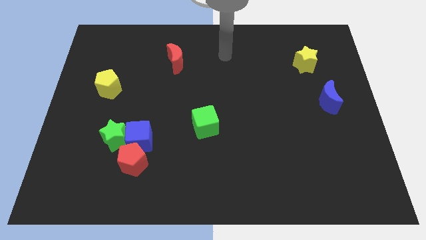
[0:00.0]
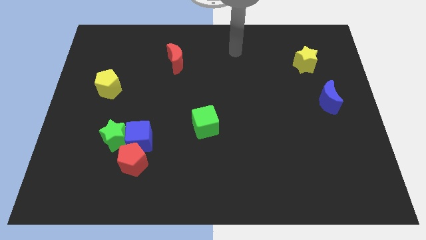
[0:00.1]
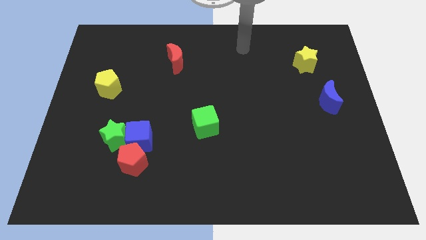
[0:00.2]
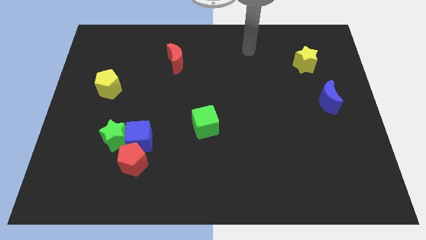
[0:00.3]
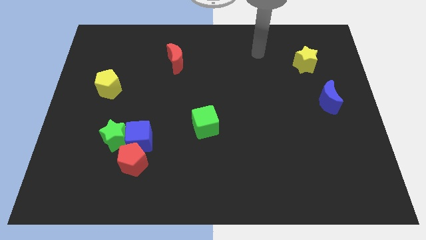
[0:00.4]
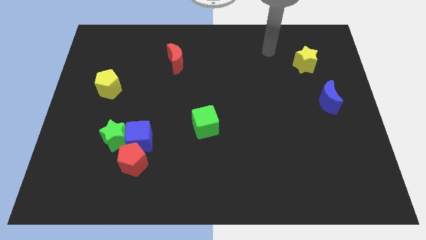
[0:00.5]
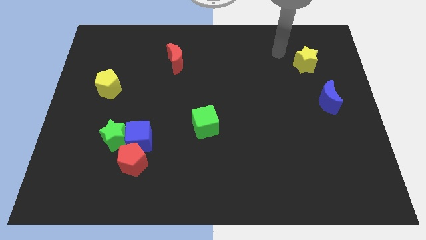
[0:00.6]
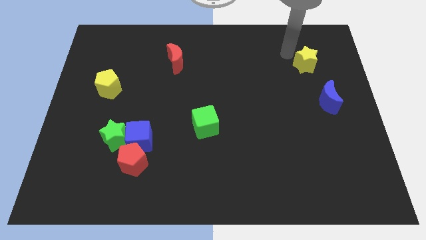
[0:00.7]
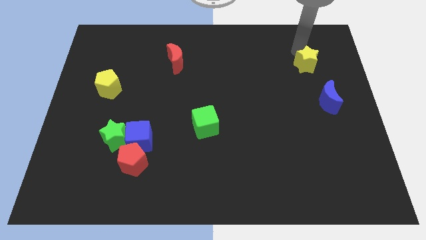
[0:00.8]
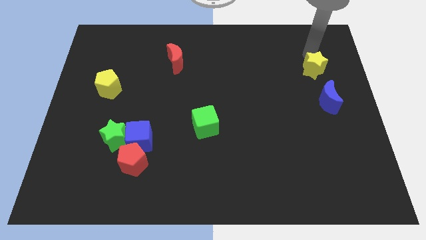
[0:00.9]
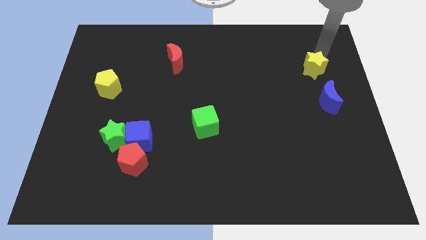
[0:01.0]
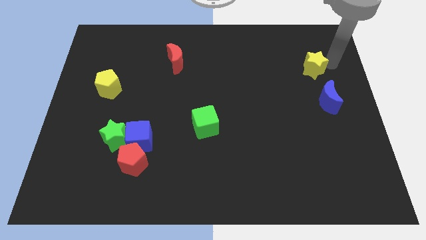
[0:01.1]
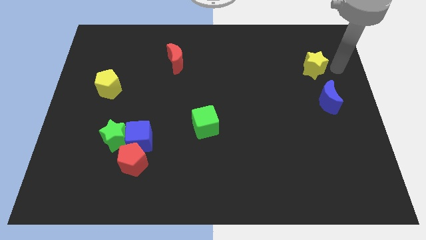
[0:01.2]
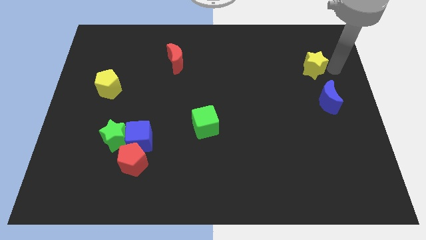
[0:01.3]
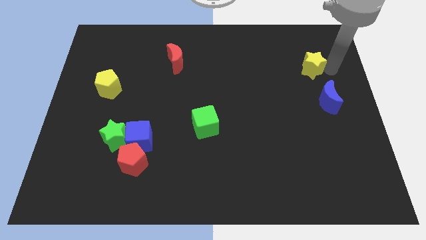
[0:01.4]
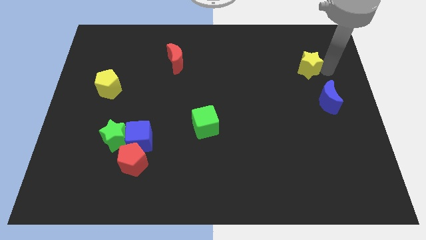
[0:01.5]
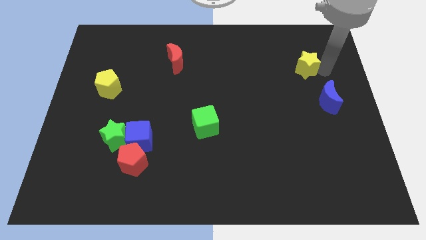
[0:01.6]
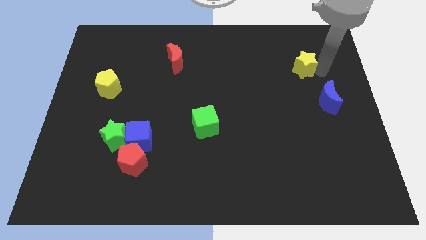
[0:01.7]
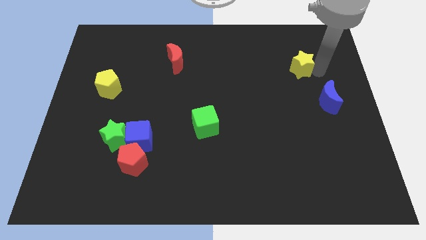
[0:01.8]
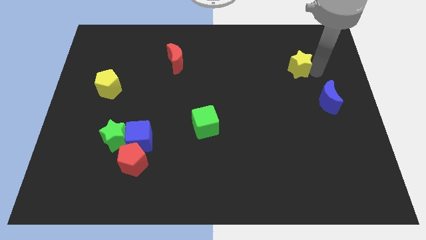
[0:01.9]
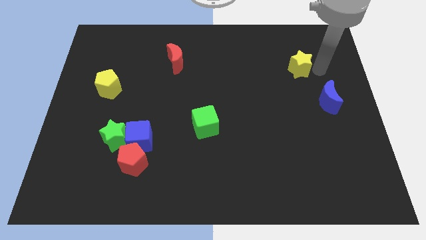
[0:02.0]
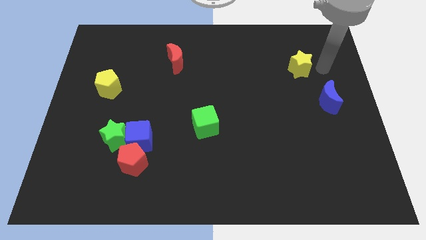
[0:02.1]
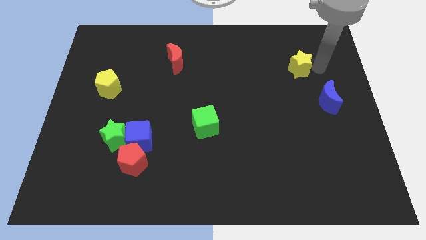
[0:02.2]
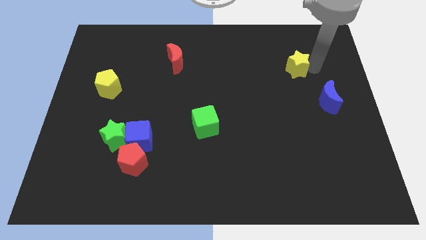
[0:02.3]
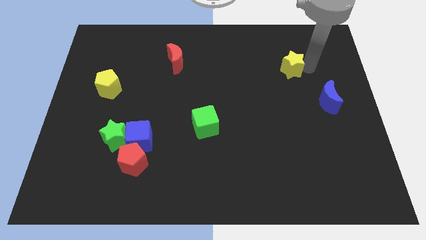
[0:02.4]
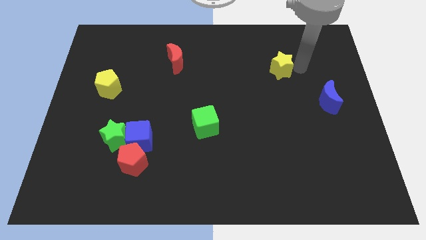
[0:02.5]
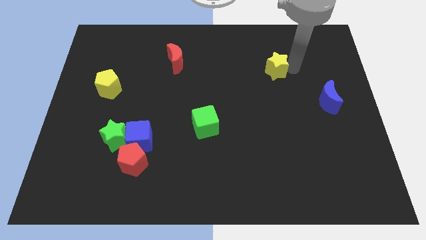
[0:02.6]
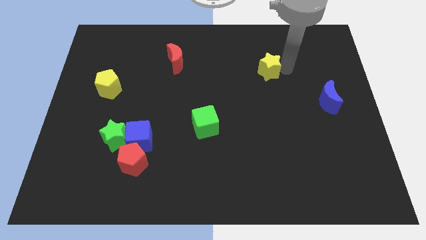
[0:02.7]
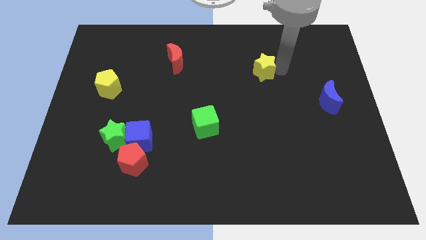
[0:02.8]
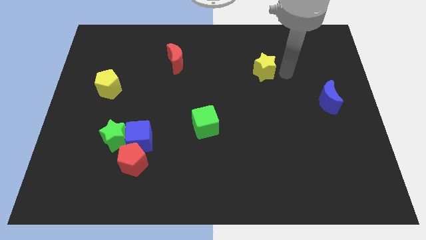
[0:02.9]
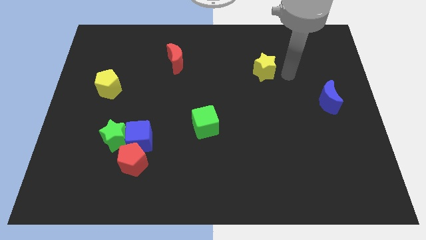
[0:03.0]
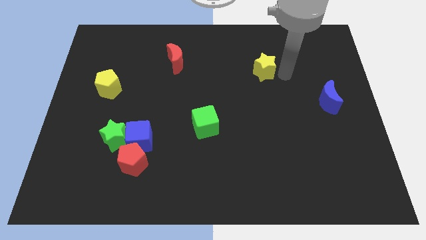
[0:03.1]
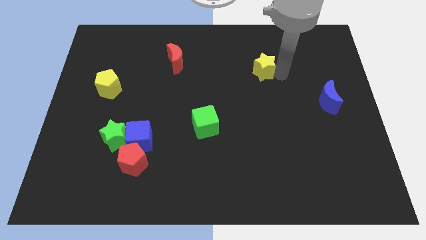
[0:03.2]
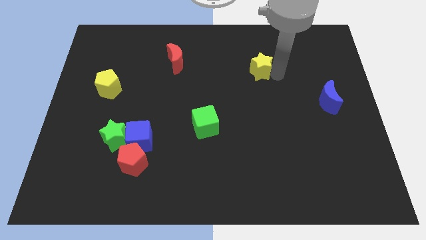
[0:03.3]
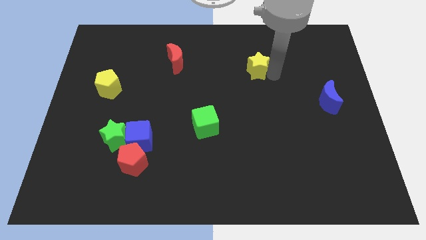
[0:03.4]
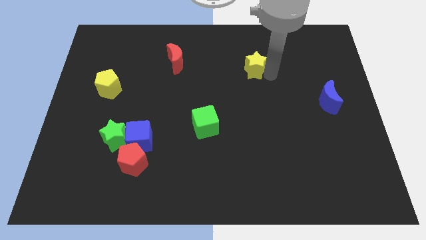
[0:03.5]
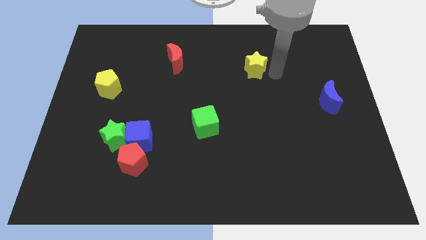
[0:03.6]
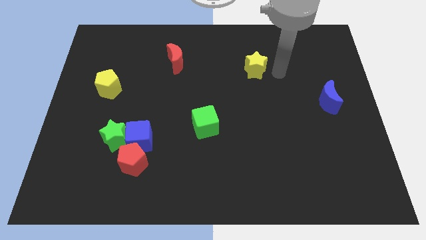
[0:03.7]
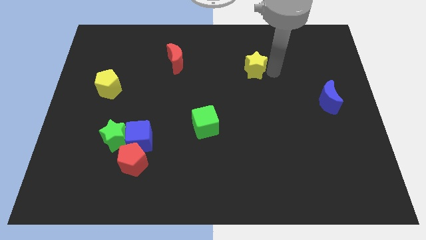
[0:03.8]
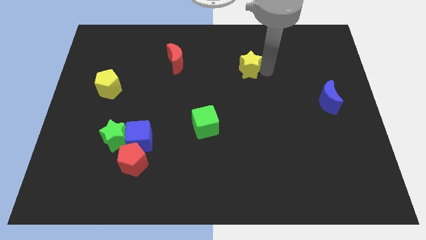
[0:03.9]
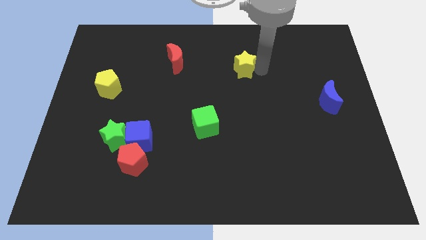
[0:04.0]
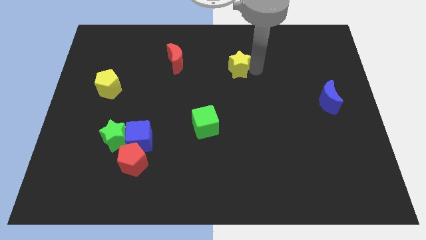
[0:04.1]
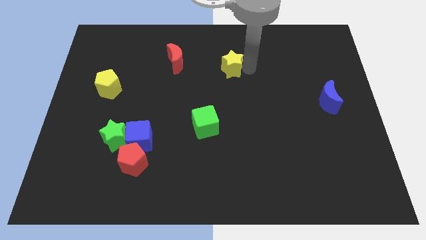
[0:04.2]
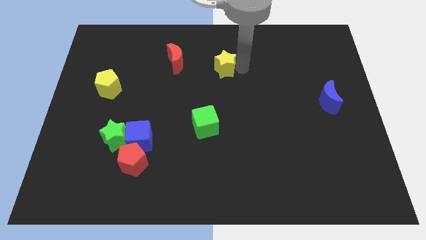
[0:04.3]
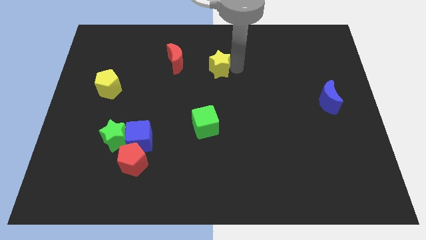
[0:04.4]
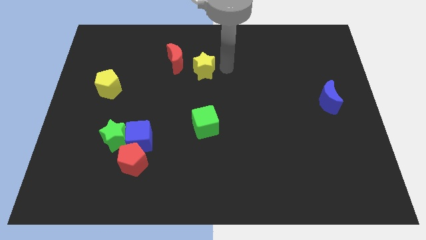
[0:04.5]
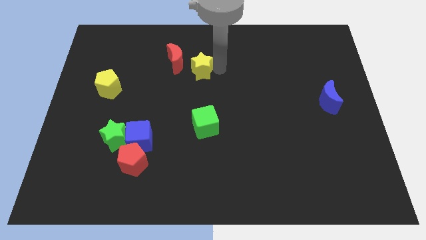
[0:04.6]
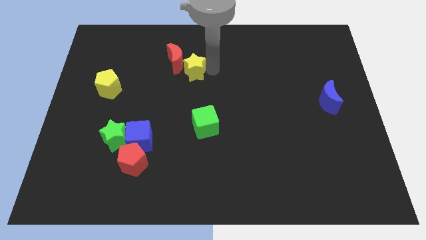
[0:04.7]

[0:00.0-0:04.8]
move the yellow star close to the red moon

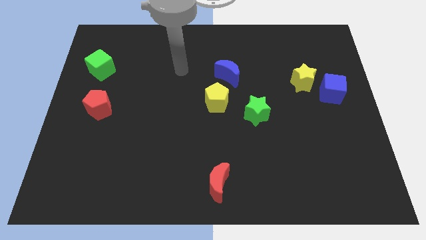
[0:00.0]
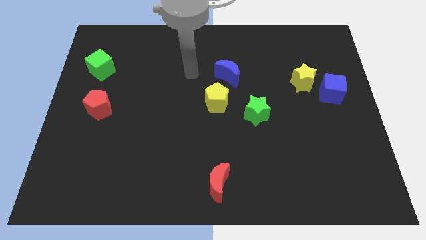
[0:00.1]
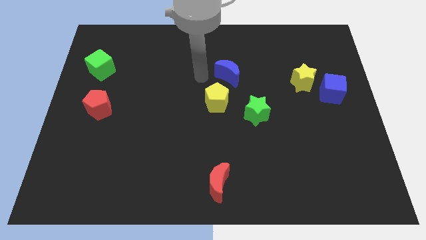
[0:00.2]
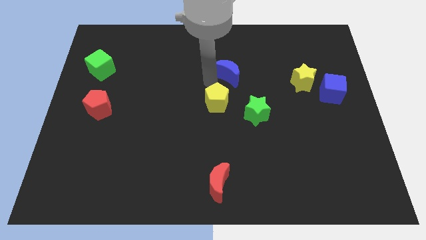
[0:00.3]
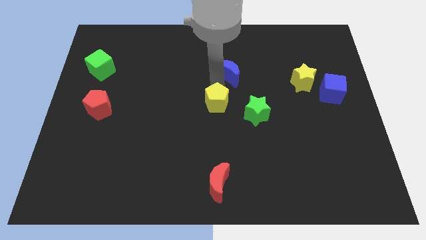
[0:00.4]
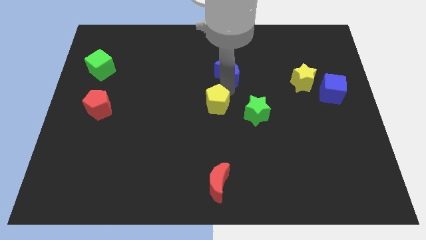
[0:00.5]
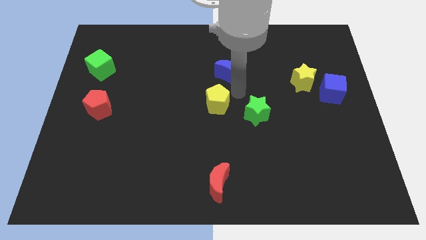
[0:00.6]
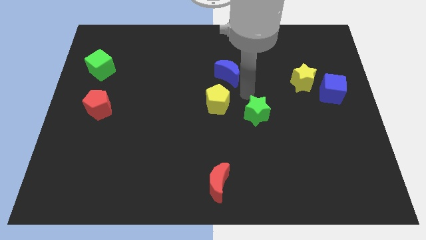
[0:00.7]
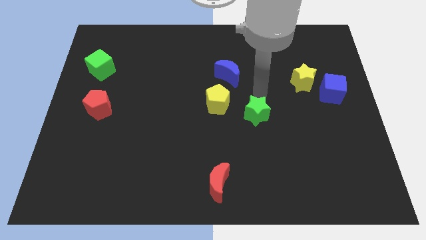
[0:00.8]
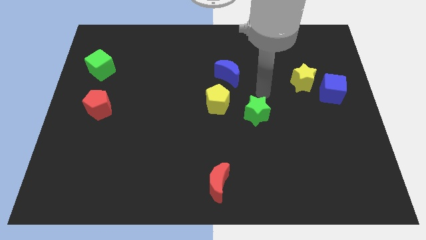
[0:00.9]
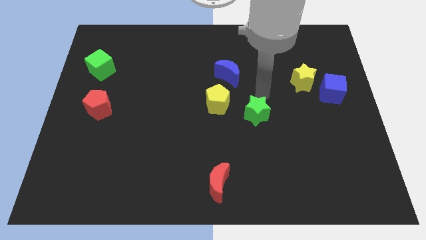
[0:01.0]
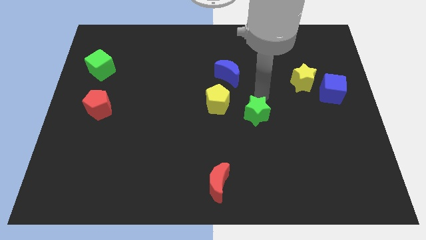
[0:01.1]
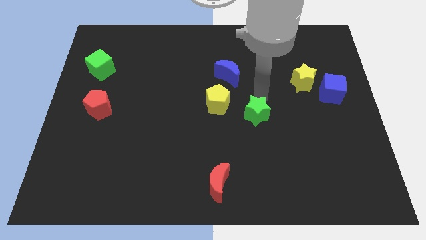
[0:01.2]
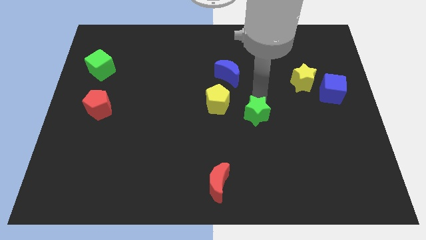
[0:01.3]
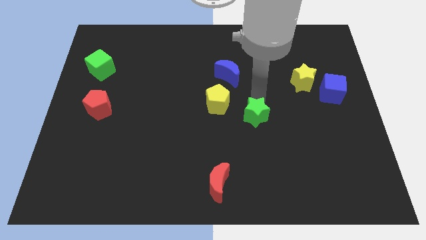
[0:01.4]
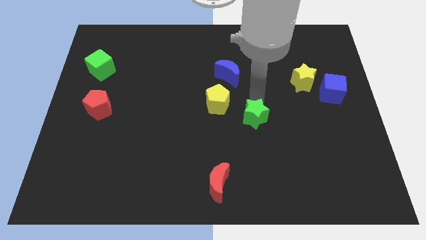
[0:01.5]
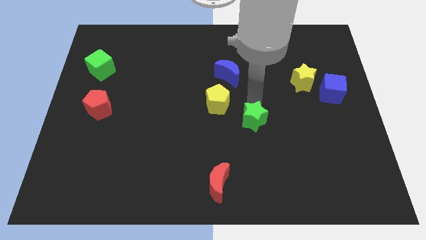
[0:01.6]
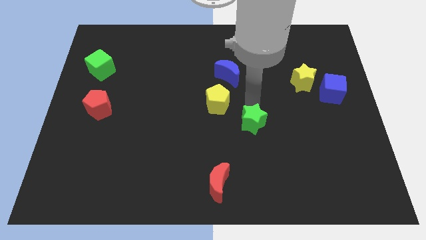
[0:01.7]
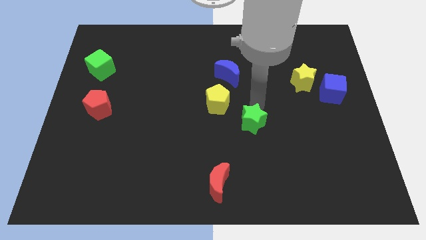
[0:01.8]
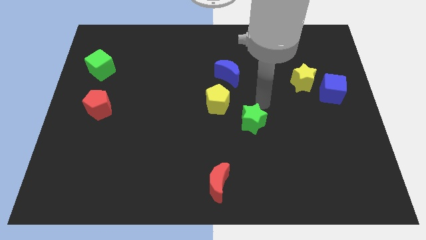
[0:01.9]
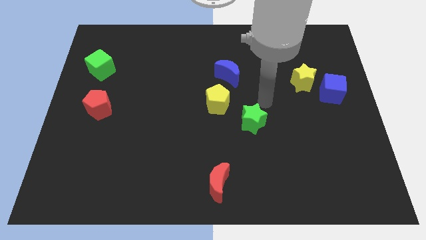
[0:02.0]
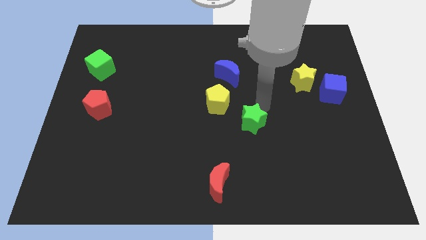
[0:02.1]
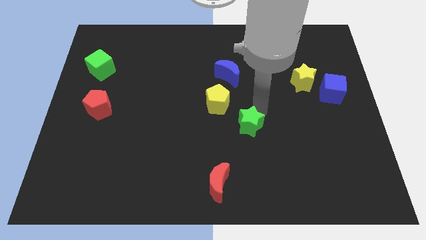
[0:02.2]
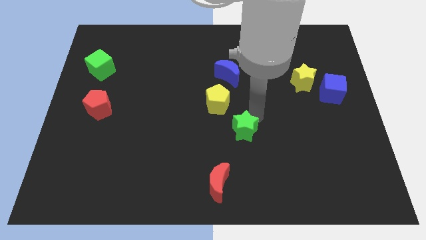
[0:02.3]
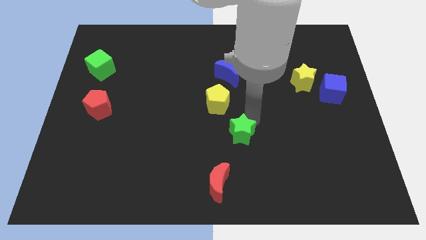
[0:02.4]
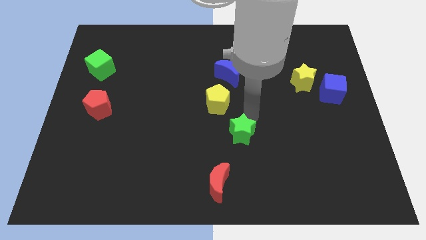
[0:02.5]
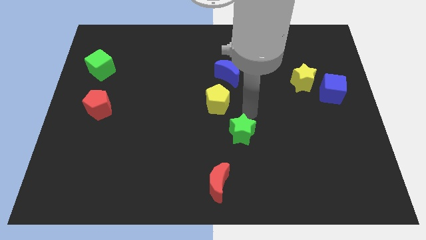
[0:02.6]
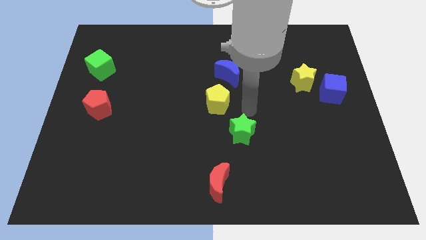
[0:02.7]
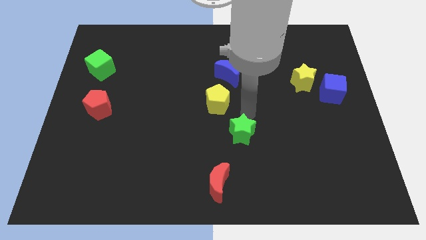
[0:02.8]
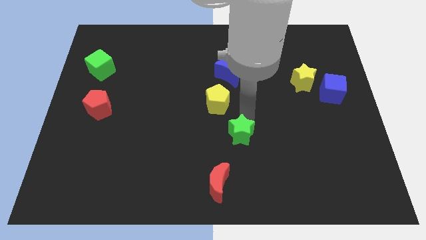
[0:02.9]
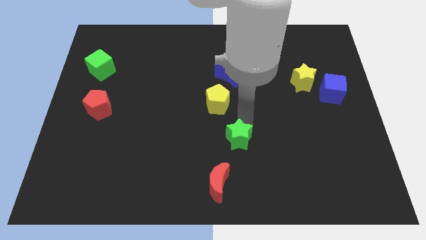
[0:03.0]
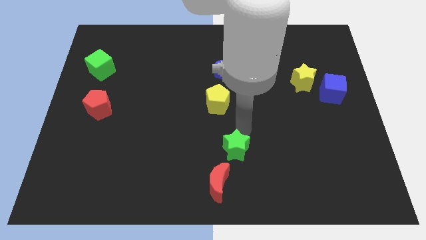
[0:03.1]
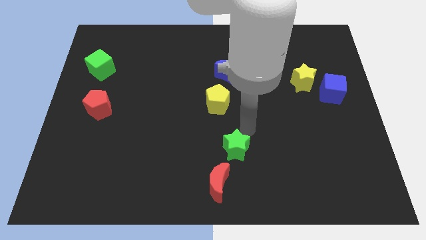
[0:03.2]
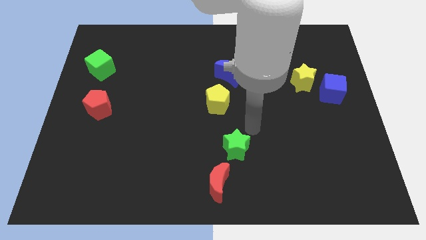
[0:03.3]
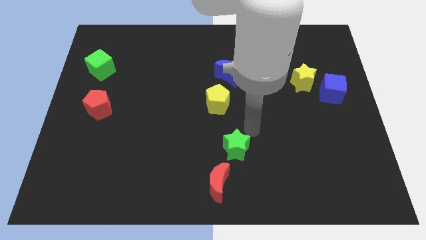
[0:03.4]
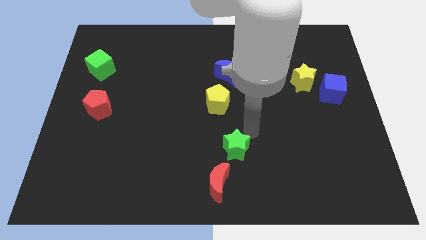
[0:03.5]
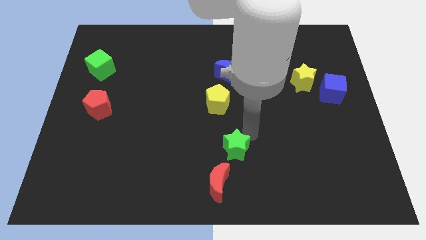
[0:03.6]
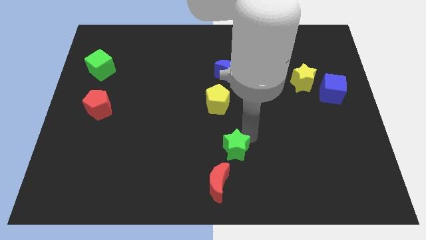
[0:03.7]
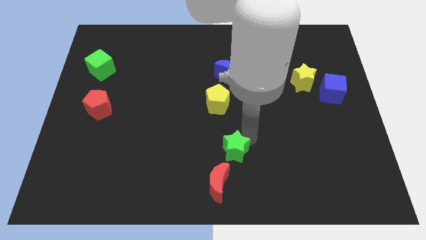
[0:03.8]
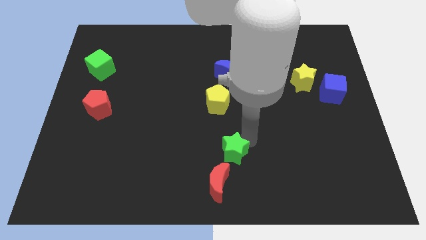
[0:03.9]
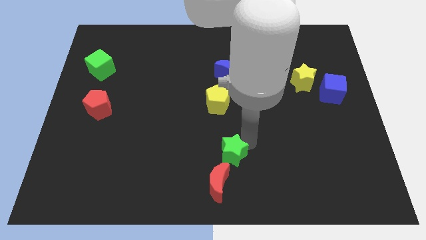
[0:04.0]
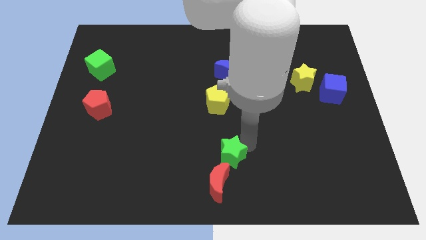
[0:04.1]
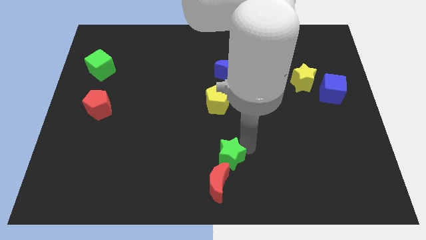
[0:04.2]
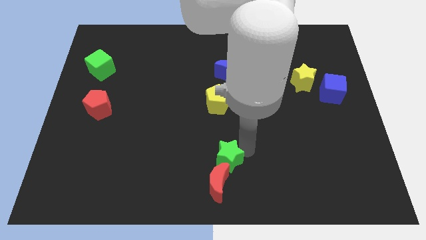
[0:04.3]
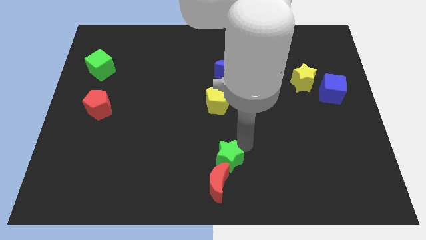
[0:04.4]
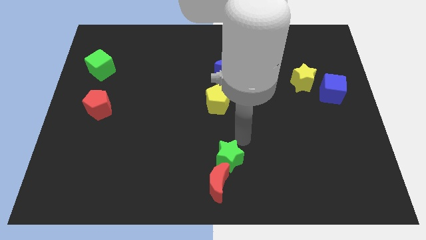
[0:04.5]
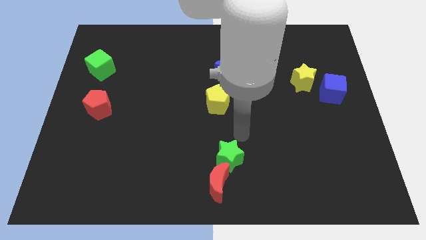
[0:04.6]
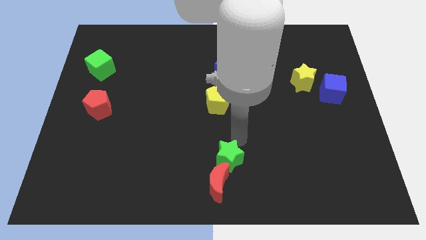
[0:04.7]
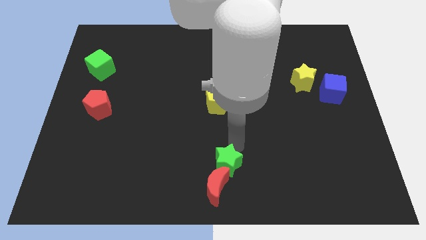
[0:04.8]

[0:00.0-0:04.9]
push the green star to the red moon
